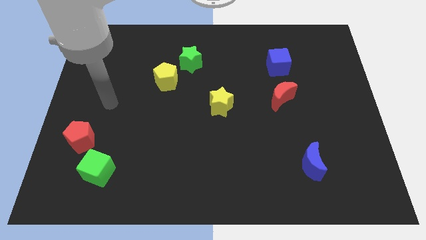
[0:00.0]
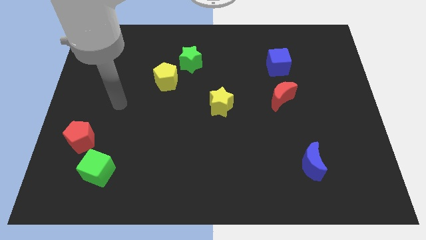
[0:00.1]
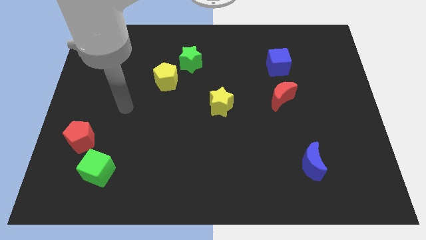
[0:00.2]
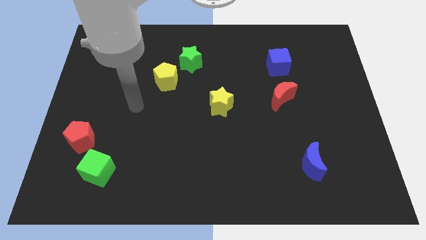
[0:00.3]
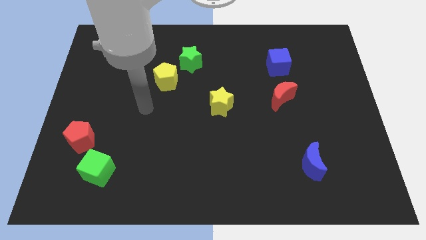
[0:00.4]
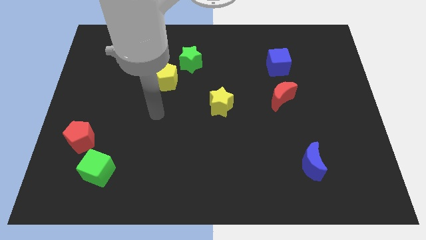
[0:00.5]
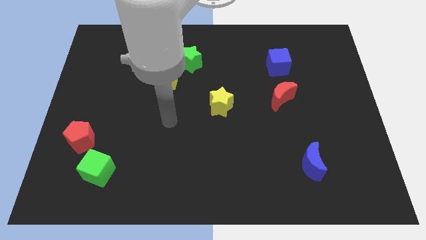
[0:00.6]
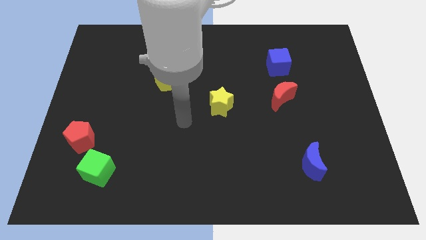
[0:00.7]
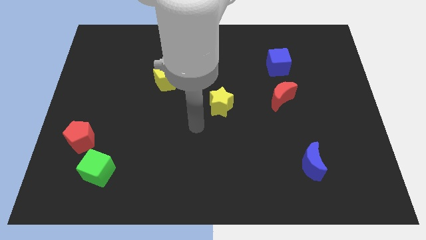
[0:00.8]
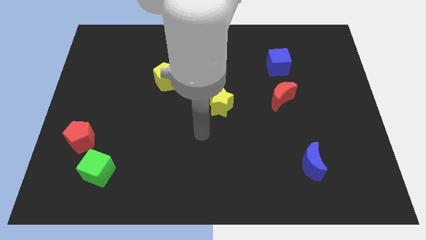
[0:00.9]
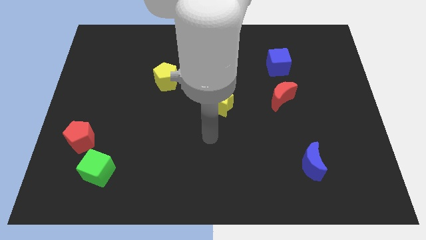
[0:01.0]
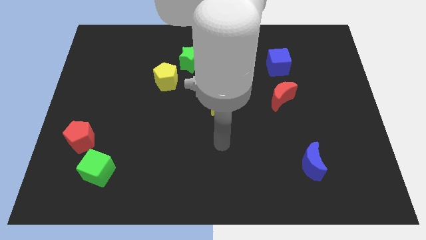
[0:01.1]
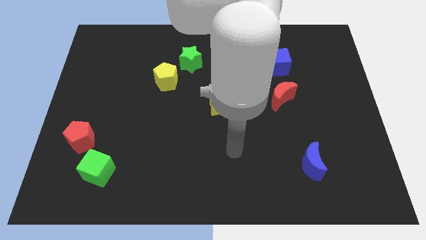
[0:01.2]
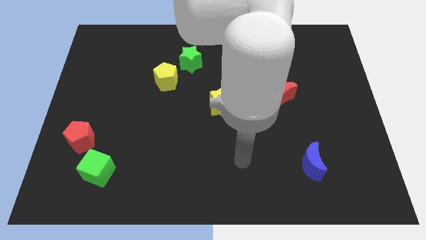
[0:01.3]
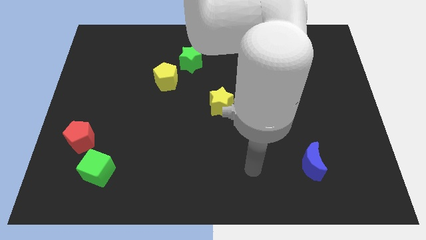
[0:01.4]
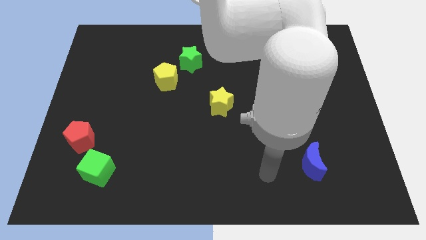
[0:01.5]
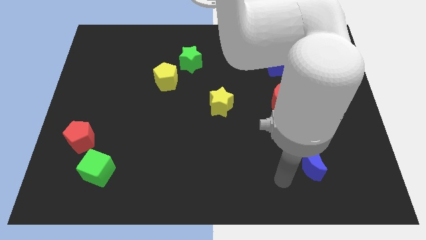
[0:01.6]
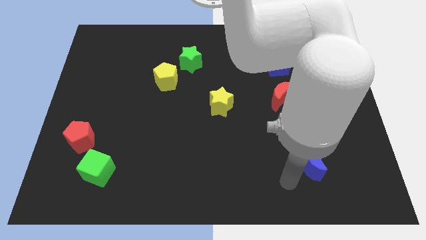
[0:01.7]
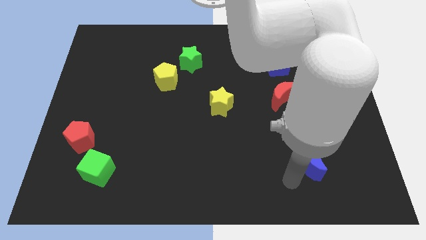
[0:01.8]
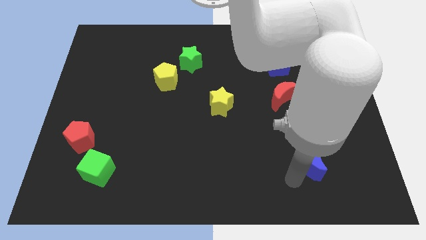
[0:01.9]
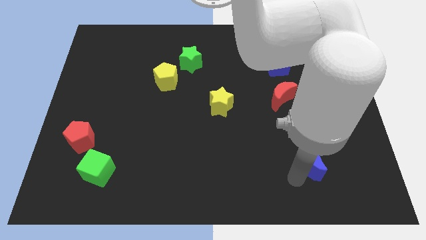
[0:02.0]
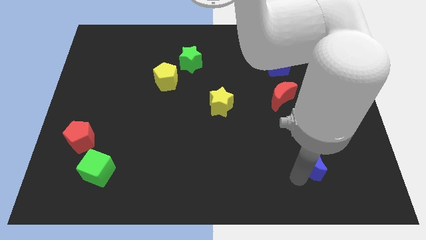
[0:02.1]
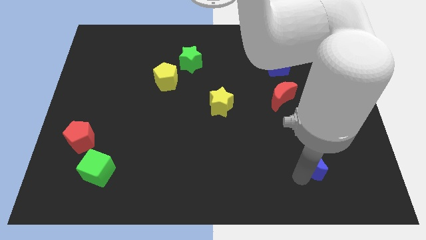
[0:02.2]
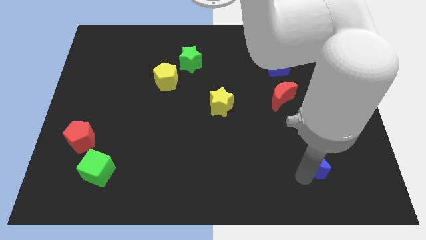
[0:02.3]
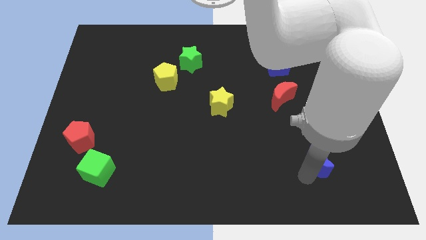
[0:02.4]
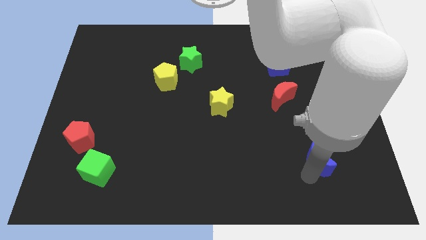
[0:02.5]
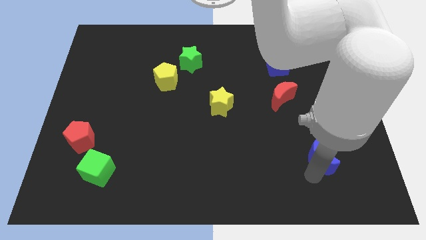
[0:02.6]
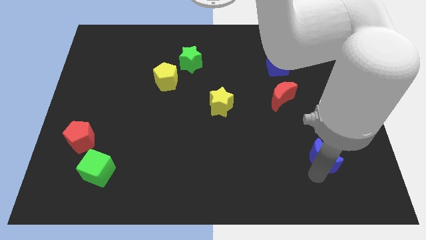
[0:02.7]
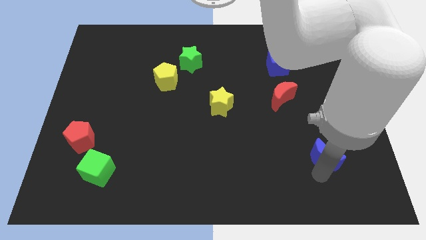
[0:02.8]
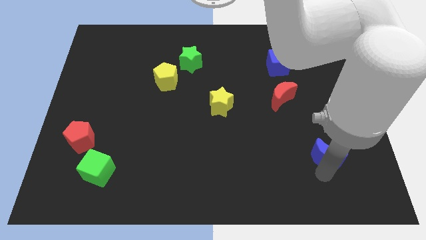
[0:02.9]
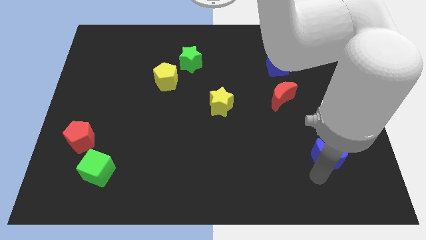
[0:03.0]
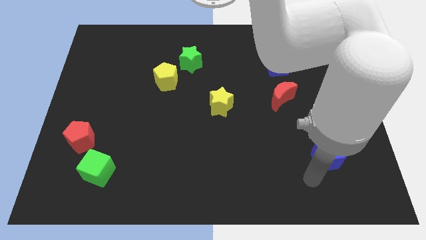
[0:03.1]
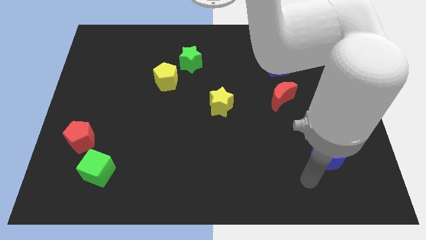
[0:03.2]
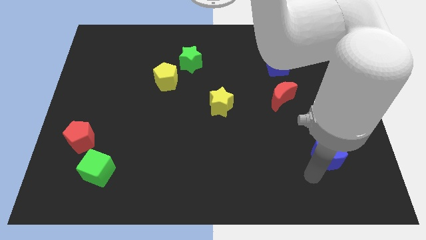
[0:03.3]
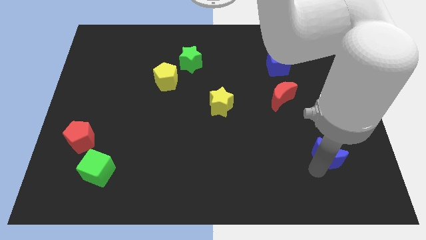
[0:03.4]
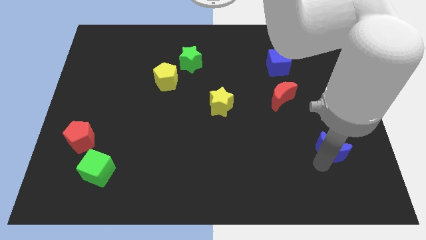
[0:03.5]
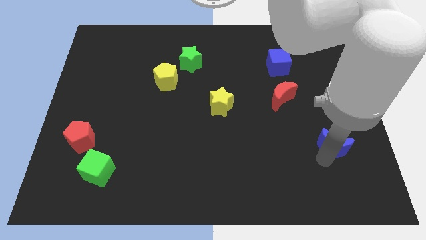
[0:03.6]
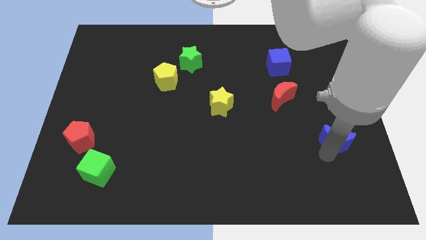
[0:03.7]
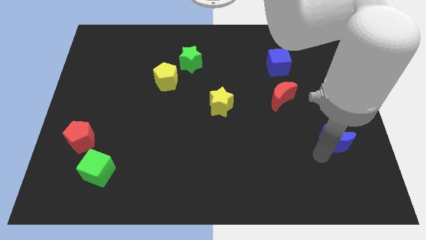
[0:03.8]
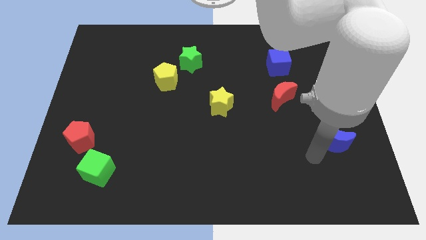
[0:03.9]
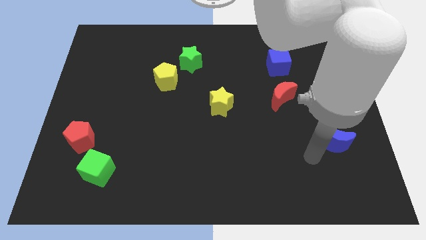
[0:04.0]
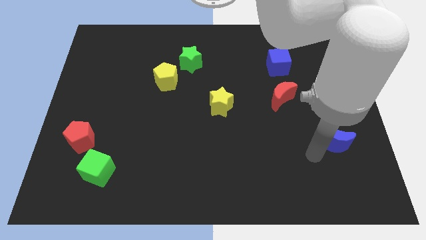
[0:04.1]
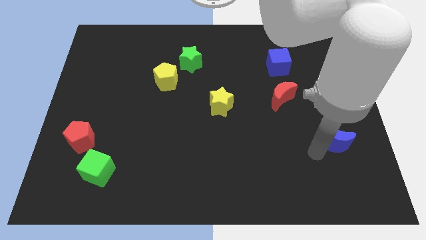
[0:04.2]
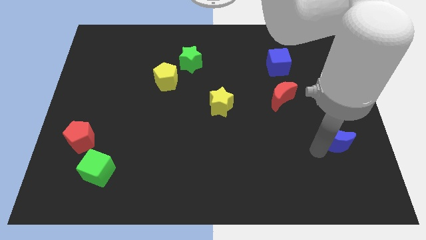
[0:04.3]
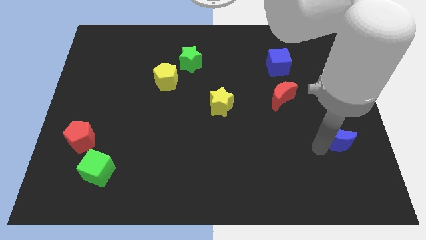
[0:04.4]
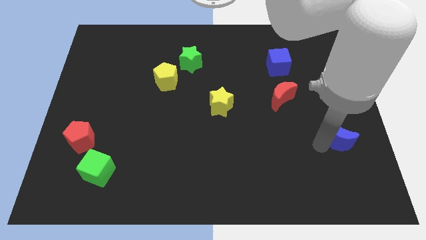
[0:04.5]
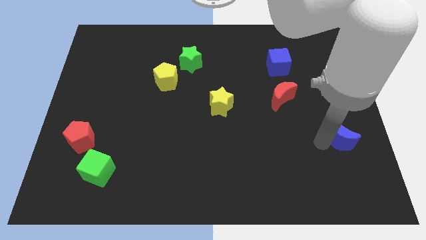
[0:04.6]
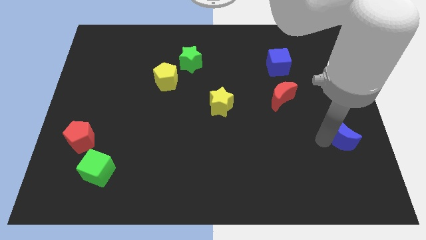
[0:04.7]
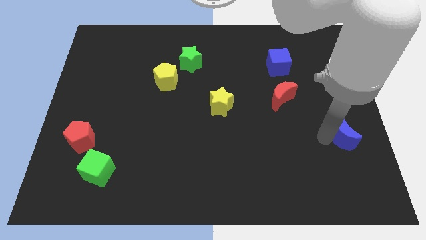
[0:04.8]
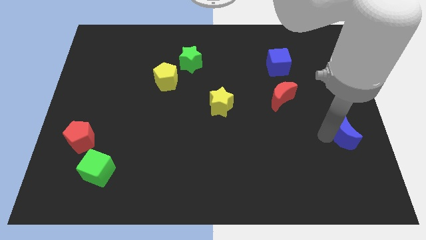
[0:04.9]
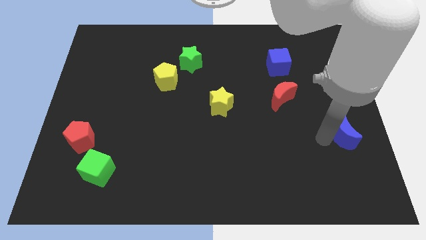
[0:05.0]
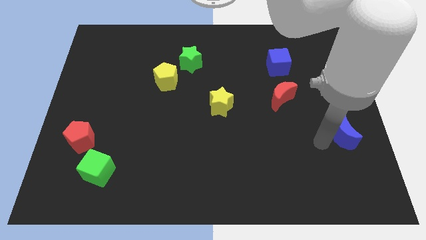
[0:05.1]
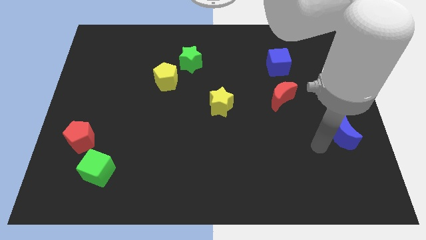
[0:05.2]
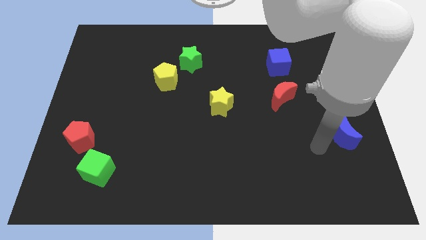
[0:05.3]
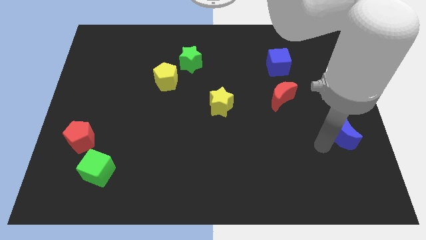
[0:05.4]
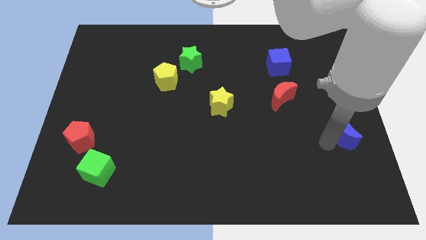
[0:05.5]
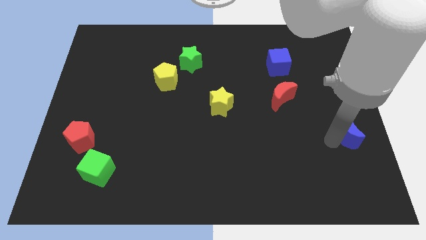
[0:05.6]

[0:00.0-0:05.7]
slide the blue moon to the right side of the board

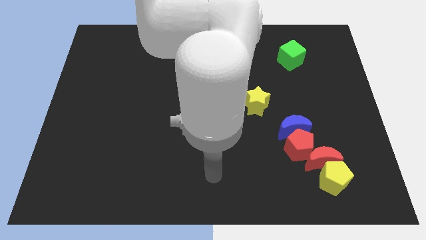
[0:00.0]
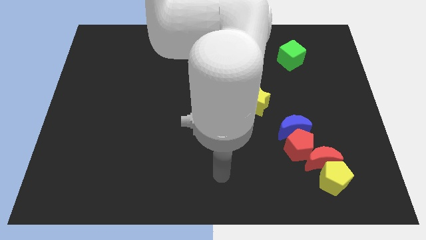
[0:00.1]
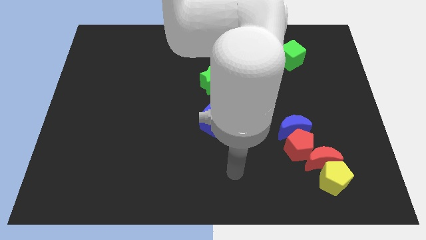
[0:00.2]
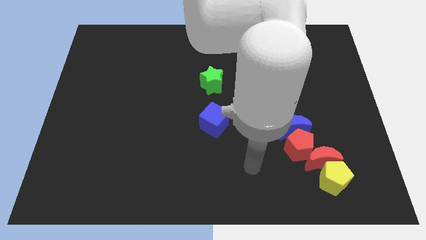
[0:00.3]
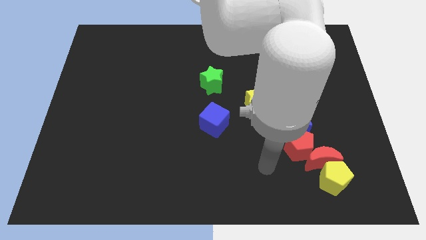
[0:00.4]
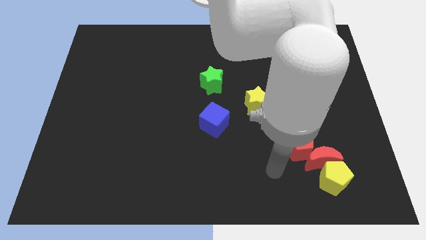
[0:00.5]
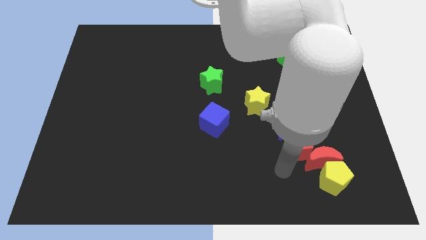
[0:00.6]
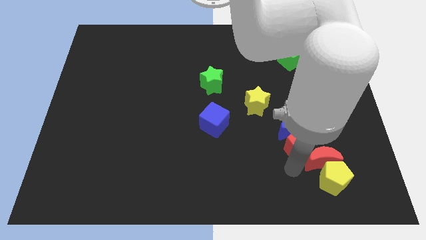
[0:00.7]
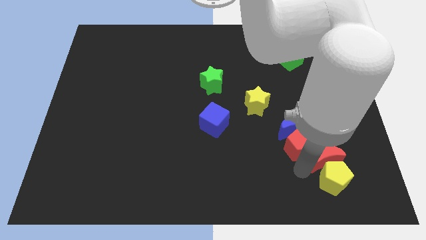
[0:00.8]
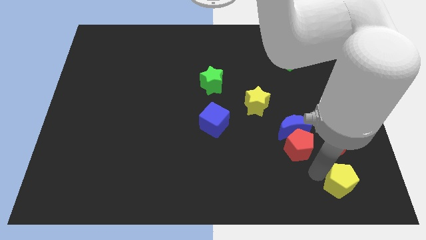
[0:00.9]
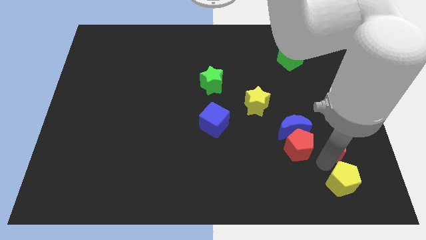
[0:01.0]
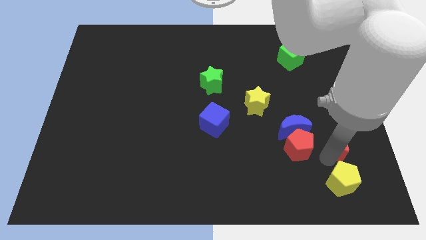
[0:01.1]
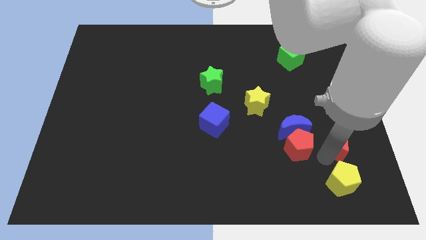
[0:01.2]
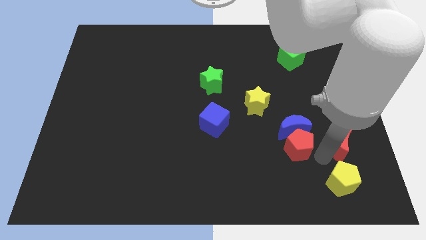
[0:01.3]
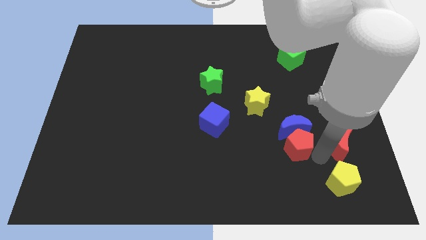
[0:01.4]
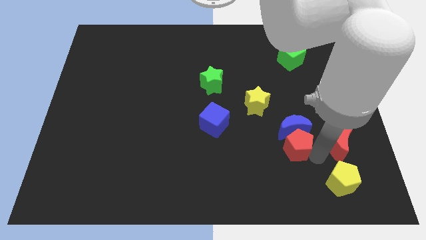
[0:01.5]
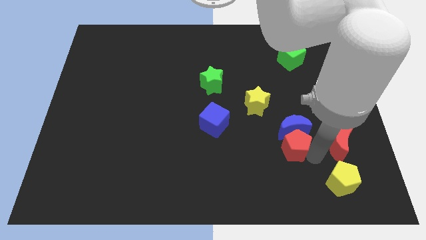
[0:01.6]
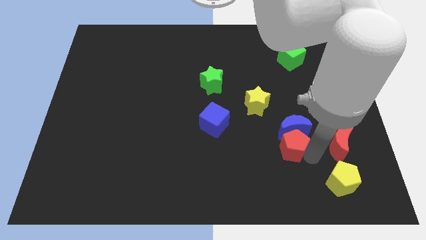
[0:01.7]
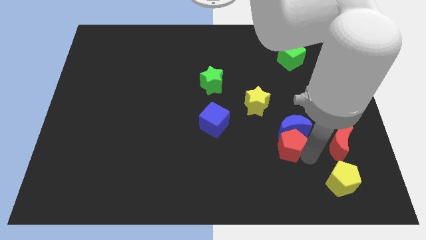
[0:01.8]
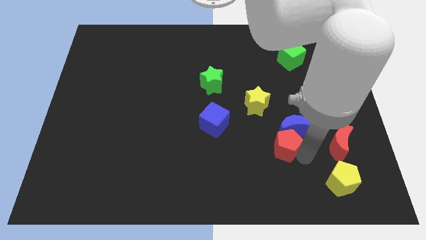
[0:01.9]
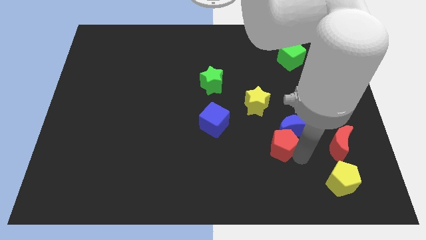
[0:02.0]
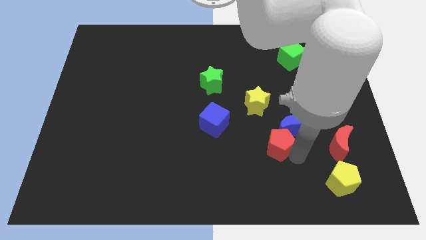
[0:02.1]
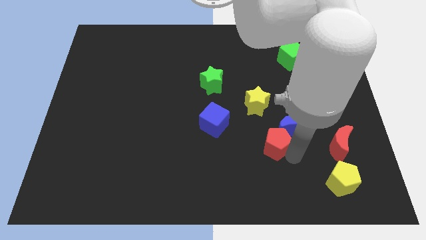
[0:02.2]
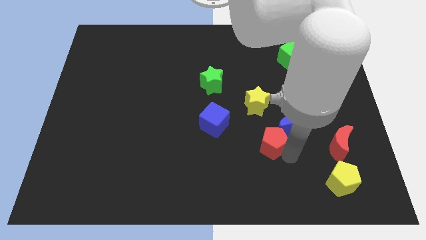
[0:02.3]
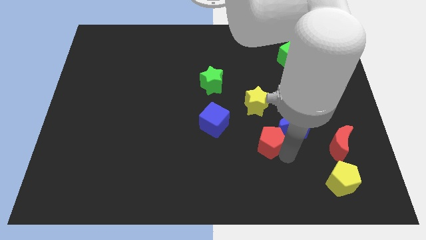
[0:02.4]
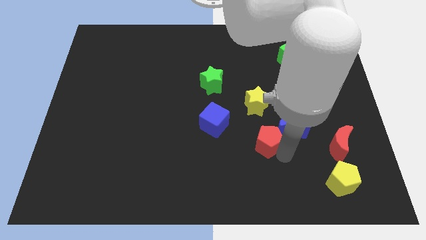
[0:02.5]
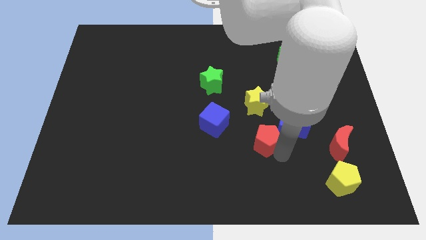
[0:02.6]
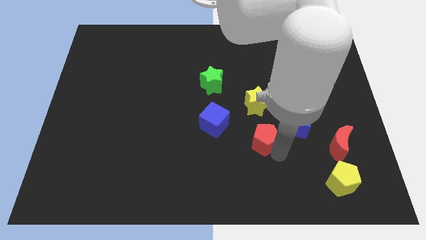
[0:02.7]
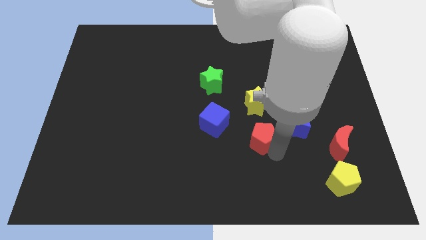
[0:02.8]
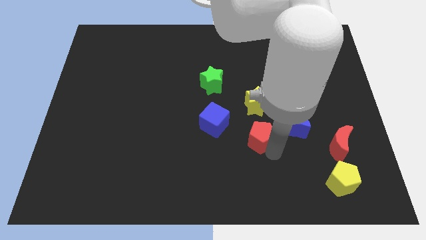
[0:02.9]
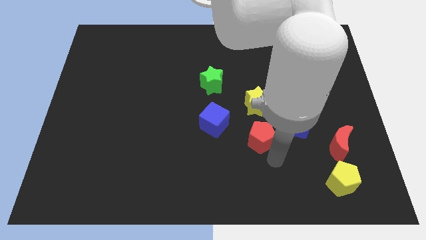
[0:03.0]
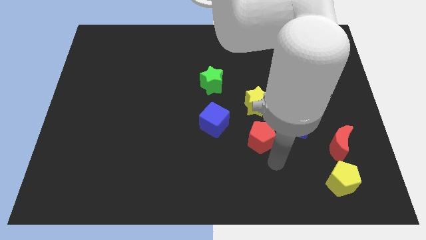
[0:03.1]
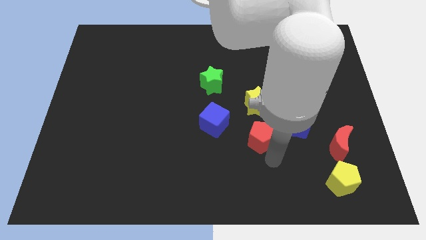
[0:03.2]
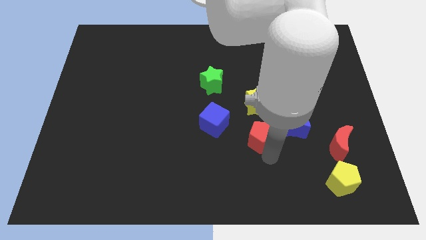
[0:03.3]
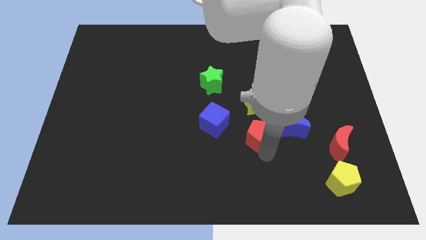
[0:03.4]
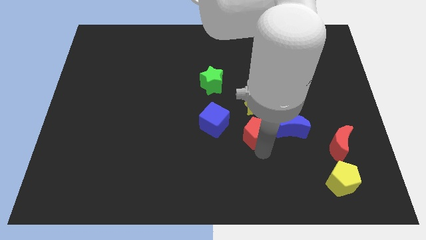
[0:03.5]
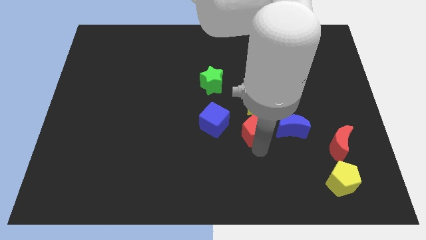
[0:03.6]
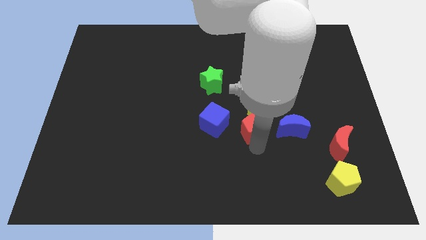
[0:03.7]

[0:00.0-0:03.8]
push the red pentagon to the middle of the board
